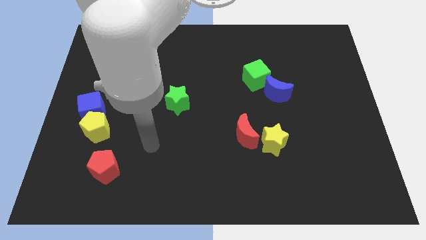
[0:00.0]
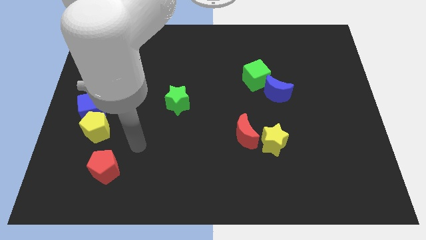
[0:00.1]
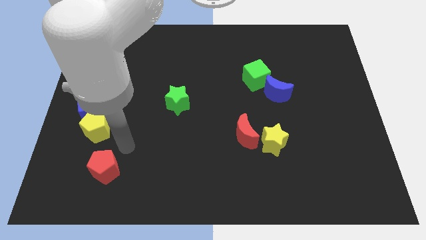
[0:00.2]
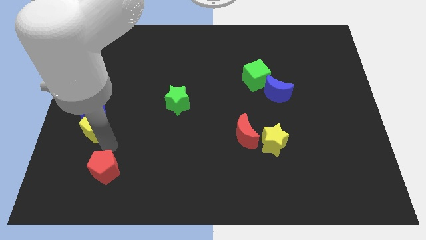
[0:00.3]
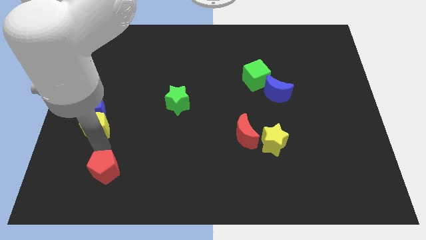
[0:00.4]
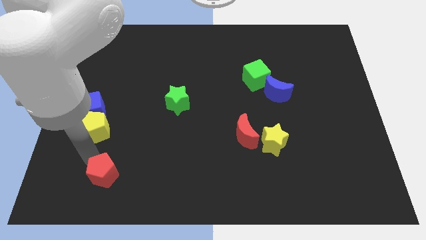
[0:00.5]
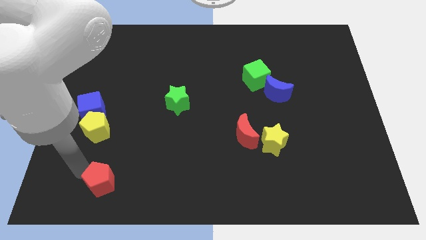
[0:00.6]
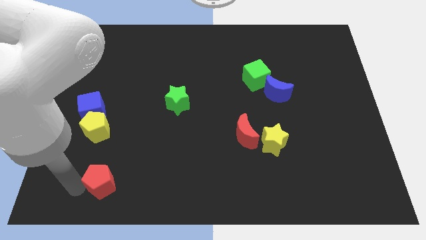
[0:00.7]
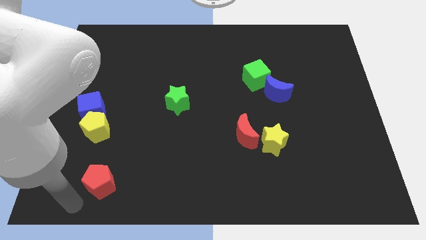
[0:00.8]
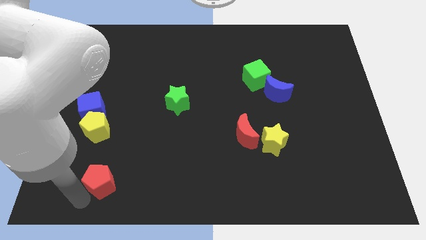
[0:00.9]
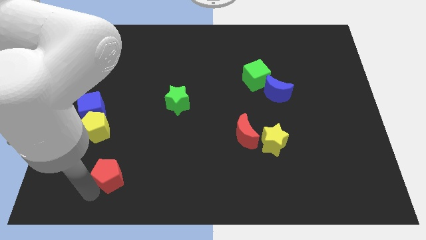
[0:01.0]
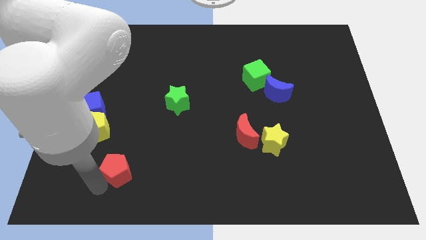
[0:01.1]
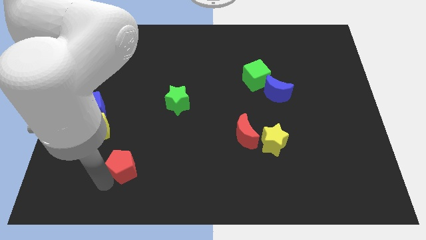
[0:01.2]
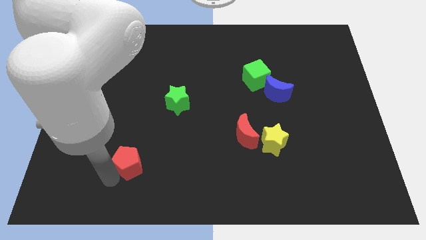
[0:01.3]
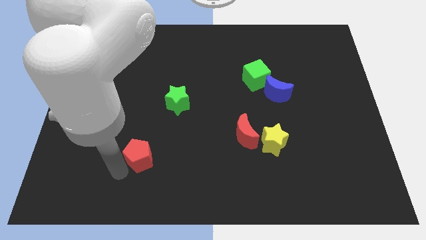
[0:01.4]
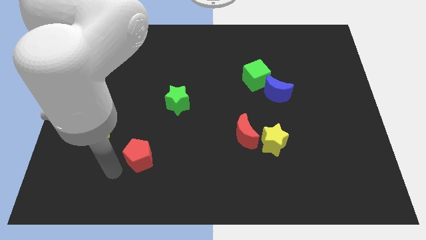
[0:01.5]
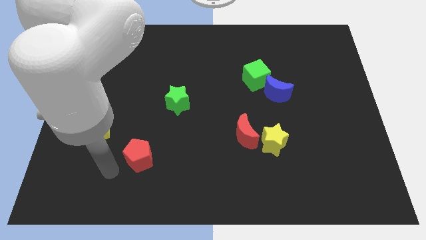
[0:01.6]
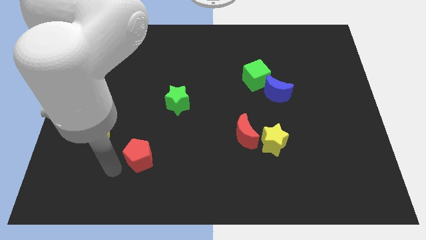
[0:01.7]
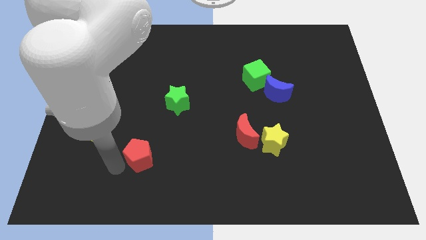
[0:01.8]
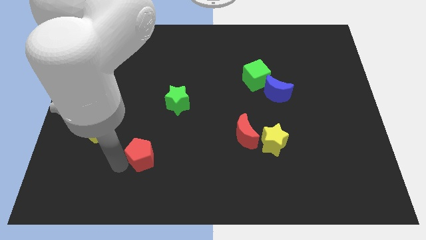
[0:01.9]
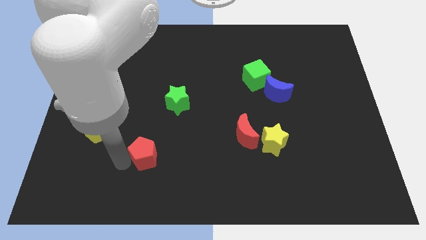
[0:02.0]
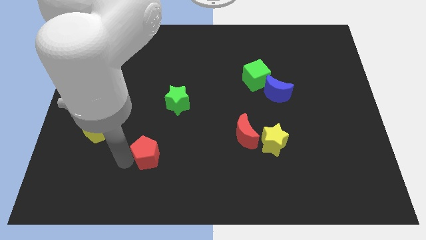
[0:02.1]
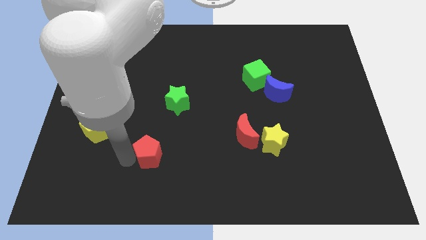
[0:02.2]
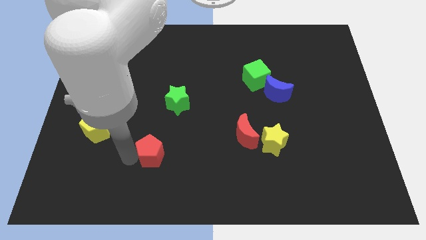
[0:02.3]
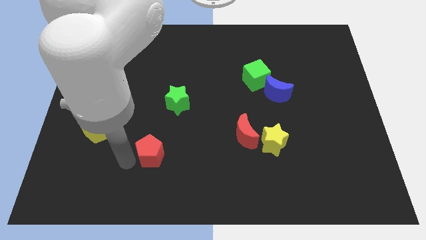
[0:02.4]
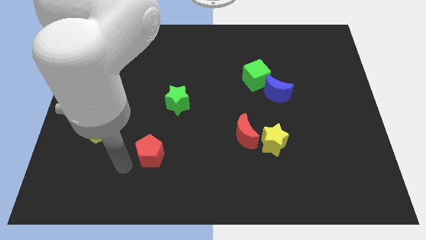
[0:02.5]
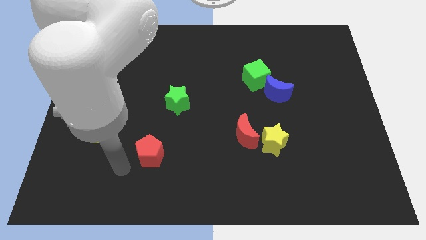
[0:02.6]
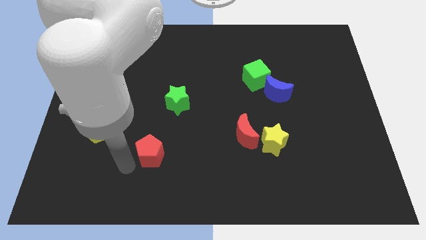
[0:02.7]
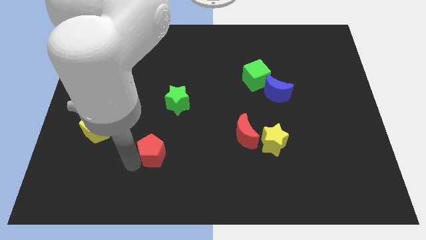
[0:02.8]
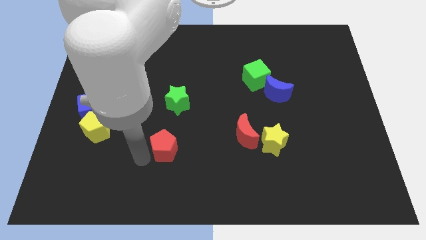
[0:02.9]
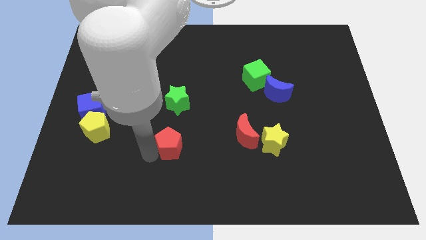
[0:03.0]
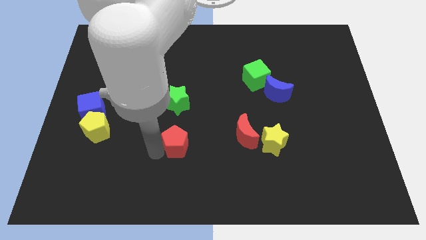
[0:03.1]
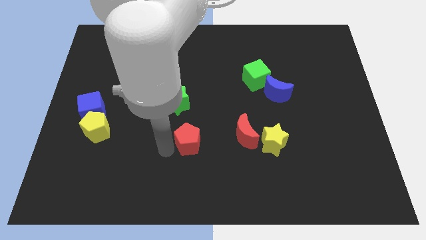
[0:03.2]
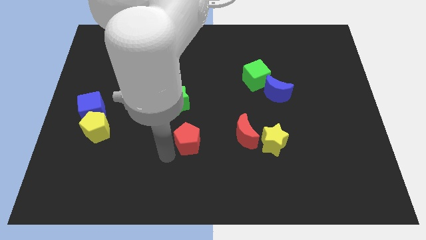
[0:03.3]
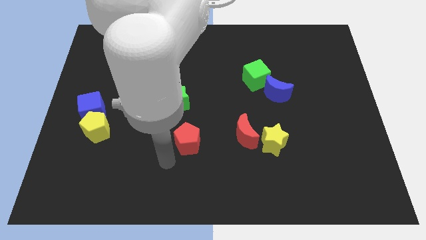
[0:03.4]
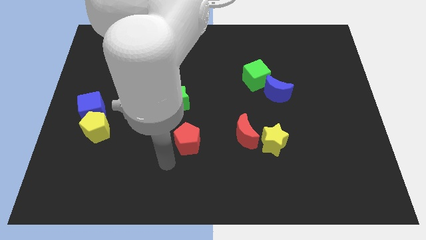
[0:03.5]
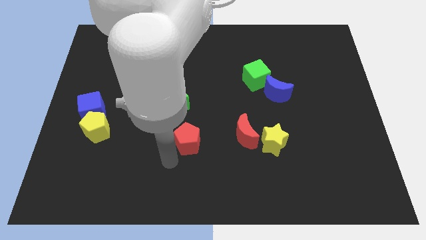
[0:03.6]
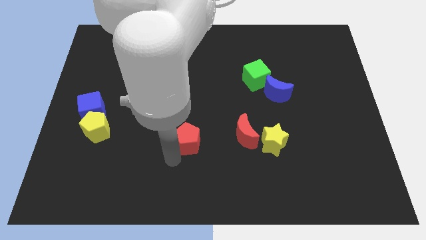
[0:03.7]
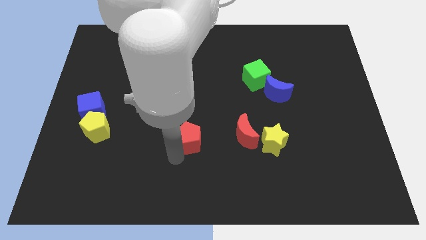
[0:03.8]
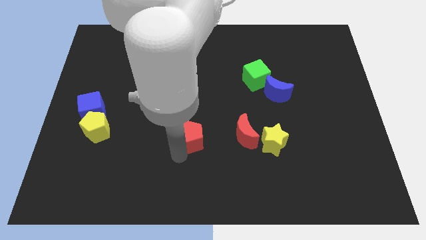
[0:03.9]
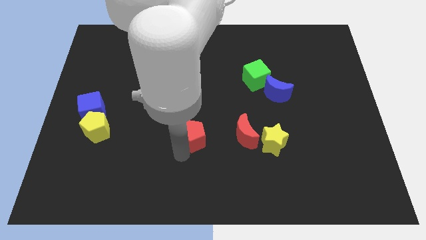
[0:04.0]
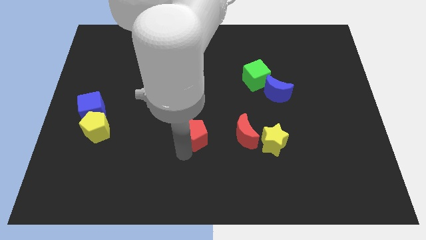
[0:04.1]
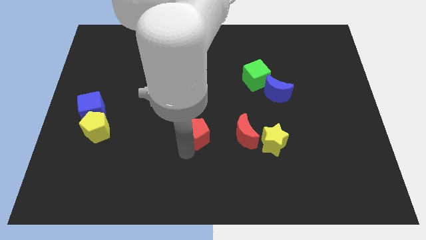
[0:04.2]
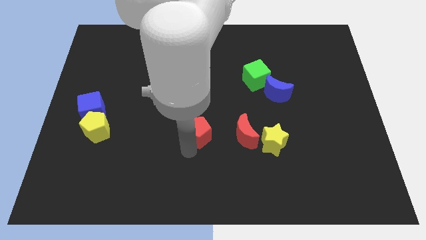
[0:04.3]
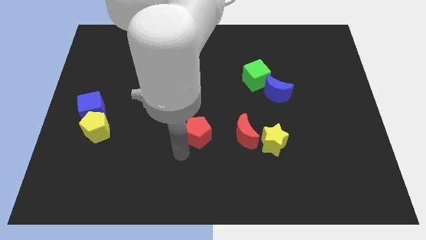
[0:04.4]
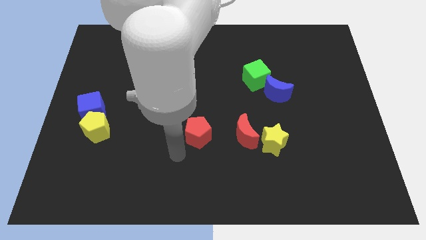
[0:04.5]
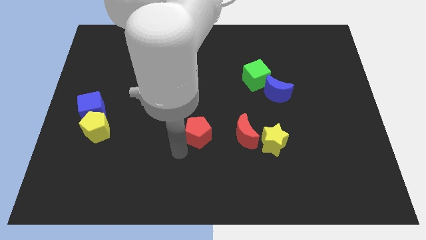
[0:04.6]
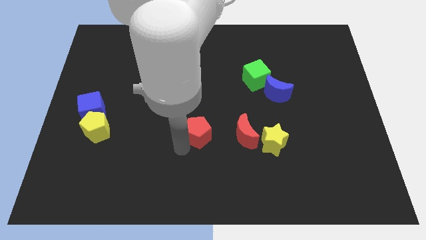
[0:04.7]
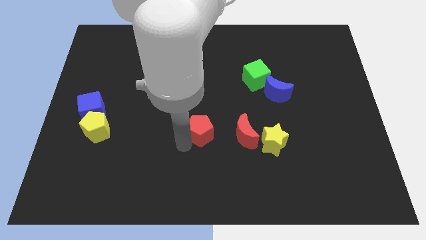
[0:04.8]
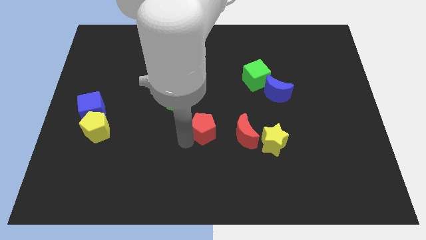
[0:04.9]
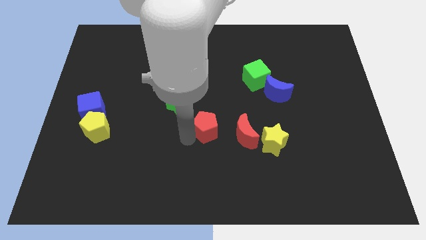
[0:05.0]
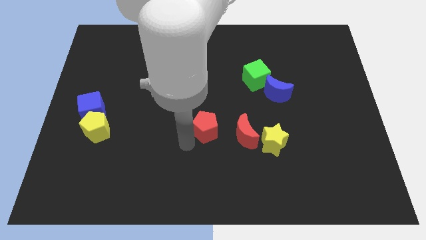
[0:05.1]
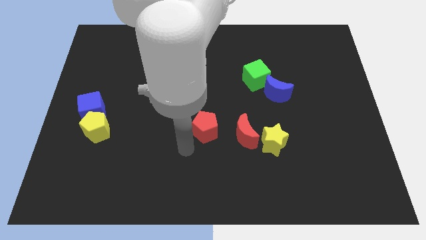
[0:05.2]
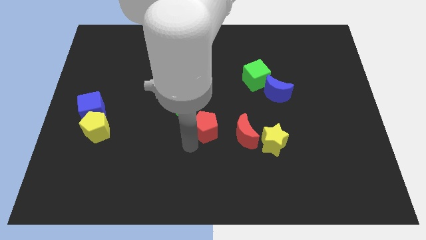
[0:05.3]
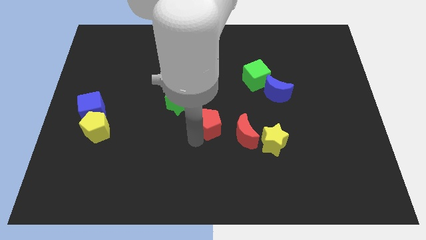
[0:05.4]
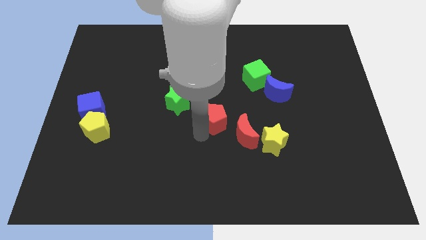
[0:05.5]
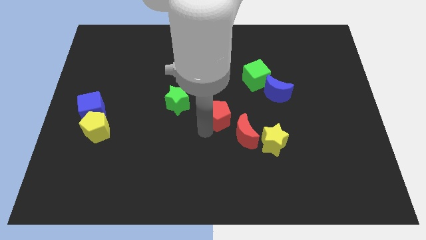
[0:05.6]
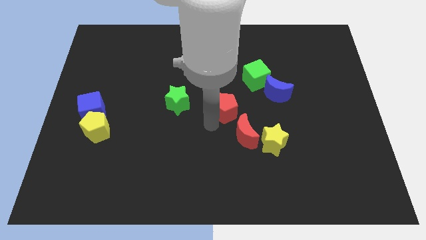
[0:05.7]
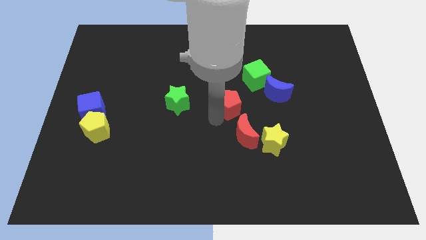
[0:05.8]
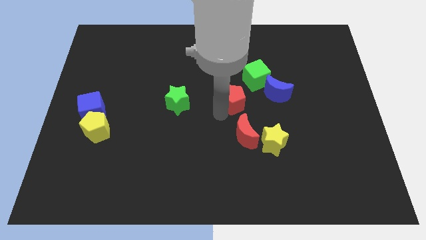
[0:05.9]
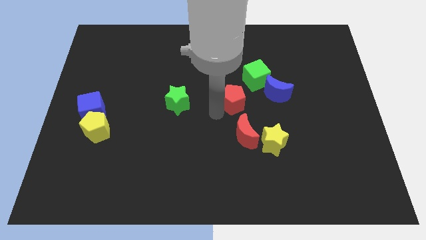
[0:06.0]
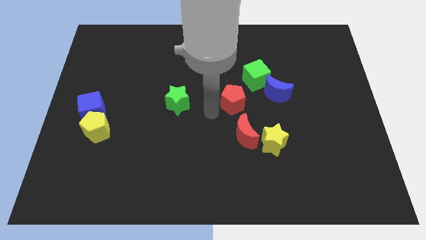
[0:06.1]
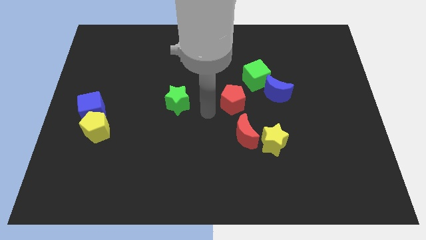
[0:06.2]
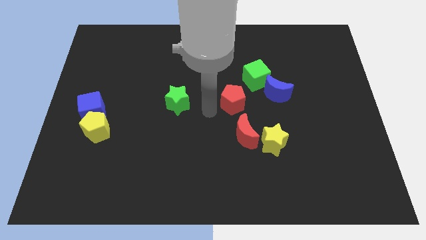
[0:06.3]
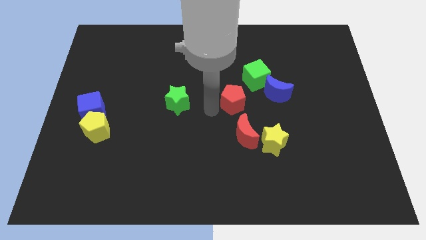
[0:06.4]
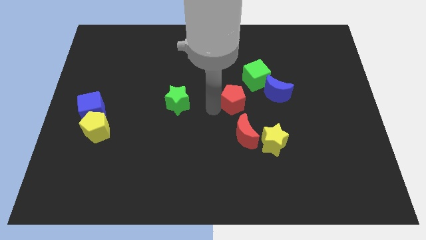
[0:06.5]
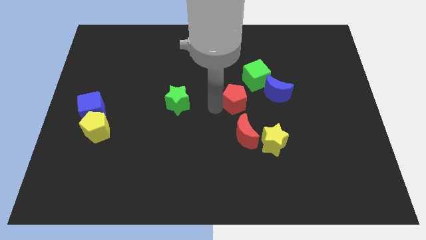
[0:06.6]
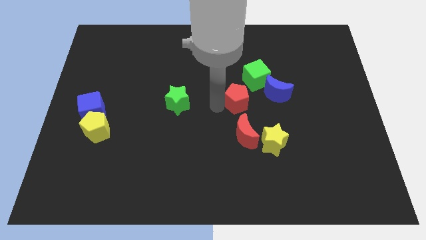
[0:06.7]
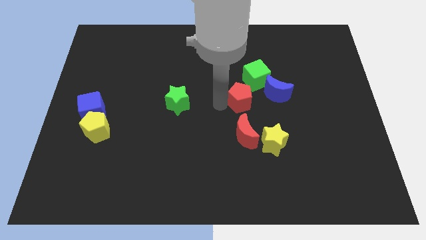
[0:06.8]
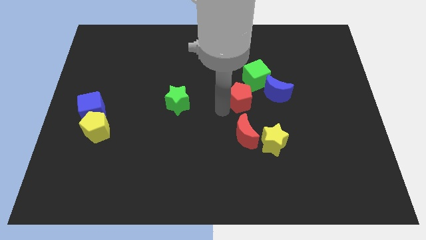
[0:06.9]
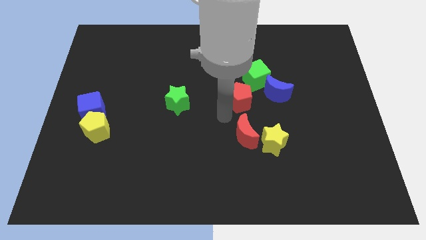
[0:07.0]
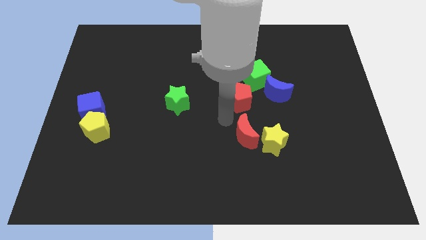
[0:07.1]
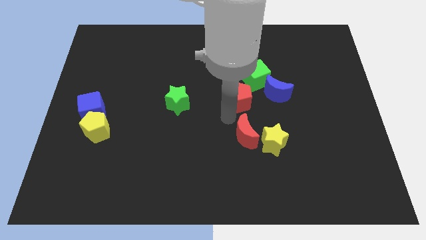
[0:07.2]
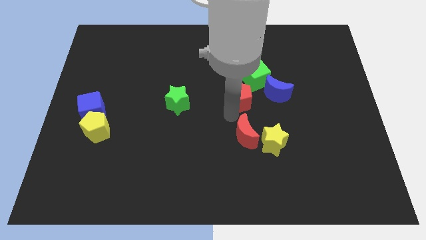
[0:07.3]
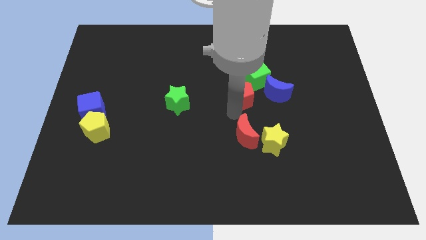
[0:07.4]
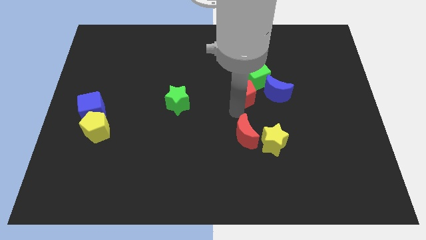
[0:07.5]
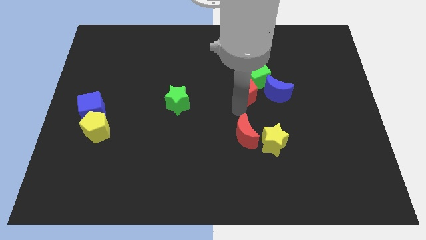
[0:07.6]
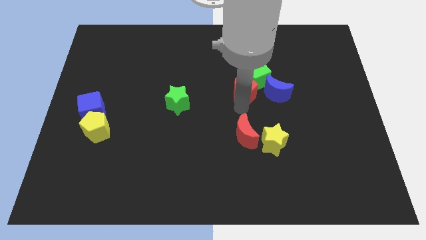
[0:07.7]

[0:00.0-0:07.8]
slide the red pentagon close to the green cube
